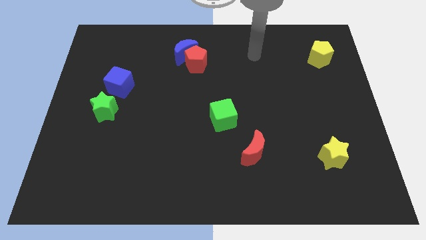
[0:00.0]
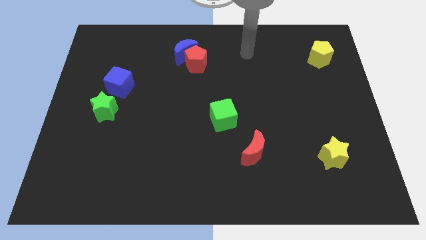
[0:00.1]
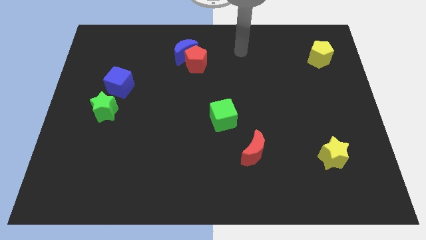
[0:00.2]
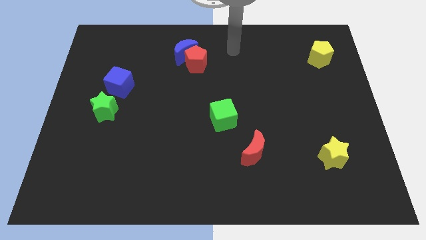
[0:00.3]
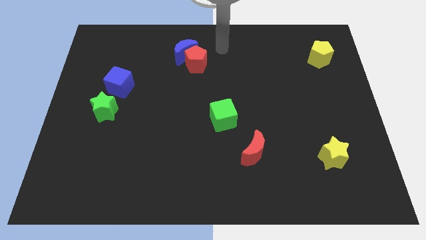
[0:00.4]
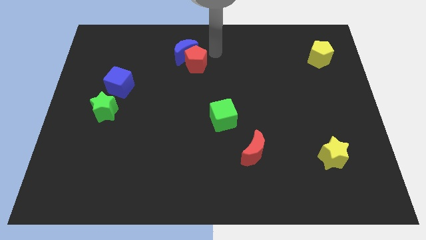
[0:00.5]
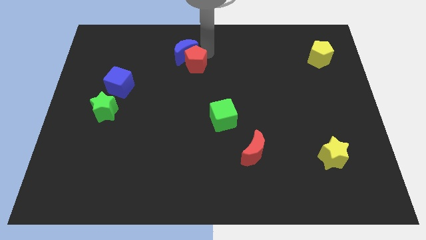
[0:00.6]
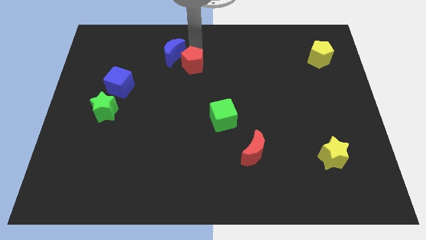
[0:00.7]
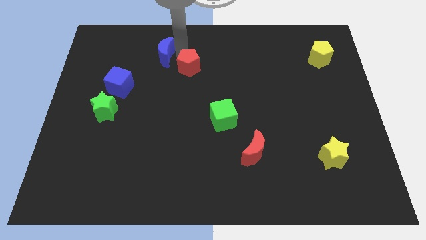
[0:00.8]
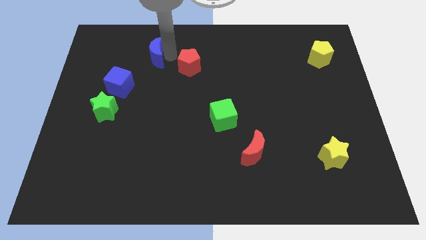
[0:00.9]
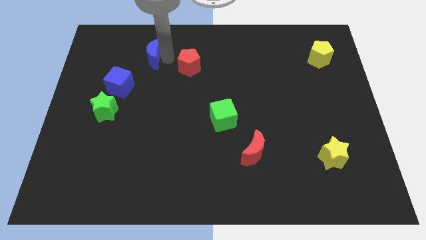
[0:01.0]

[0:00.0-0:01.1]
pull the red pentagon apart from the blue moon

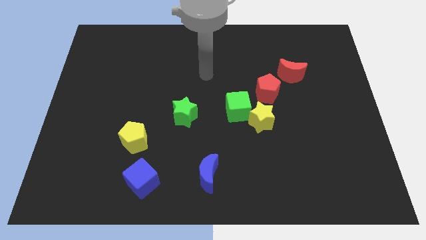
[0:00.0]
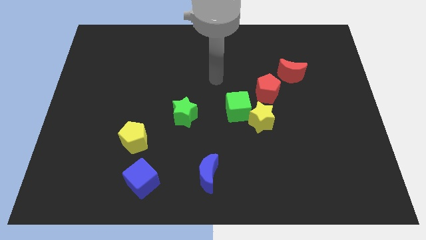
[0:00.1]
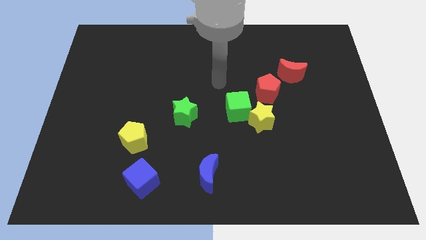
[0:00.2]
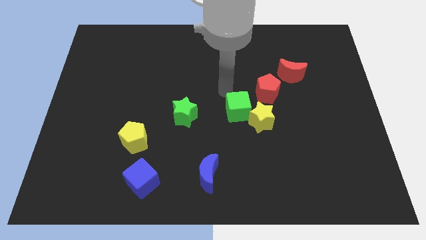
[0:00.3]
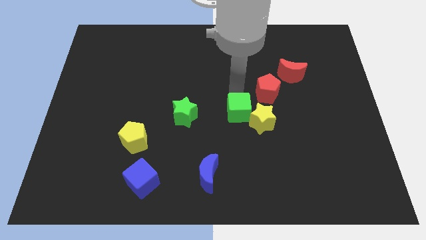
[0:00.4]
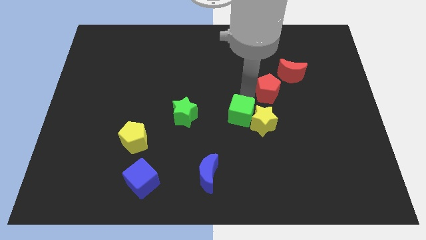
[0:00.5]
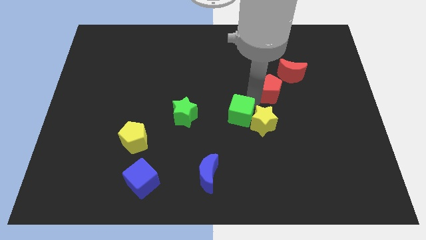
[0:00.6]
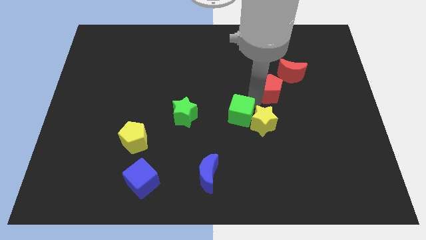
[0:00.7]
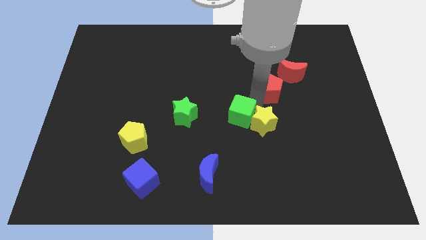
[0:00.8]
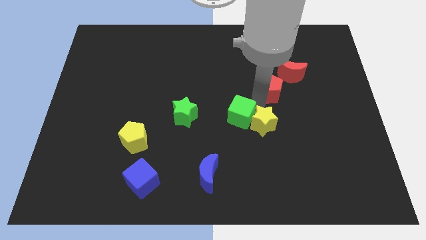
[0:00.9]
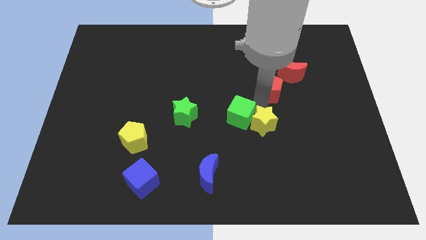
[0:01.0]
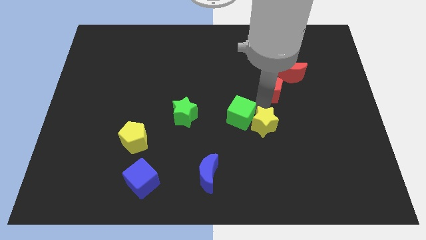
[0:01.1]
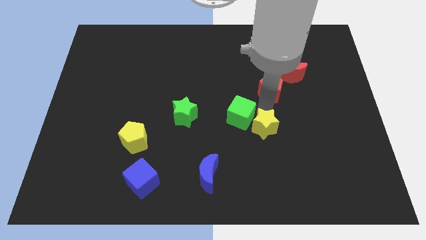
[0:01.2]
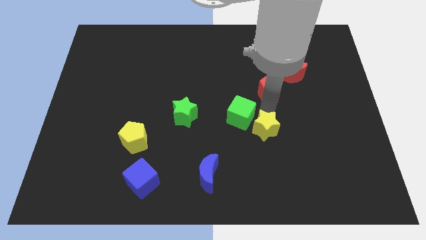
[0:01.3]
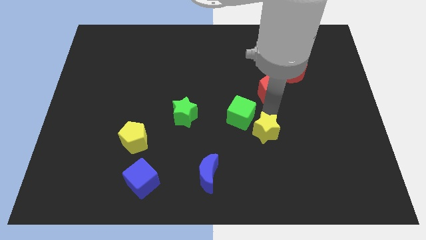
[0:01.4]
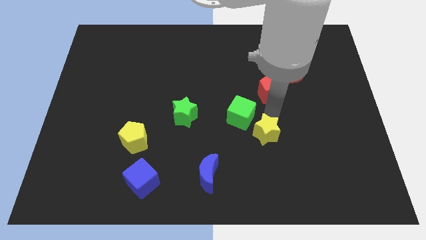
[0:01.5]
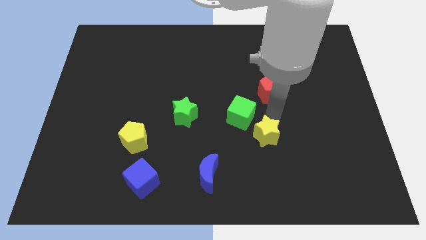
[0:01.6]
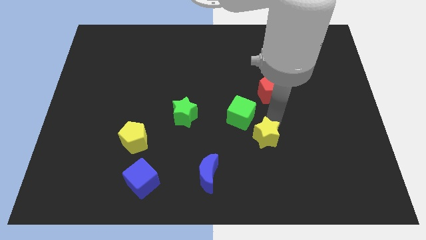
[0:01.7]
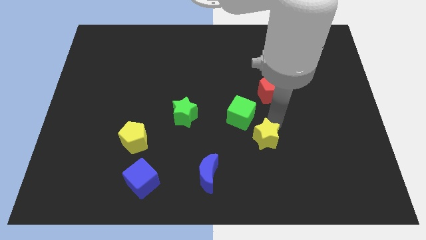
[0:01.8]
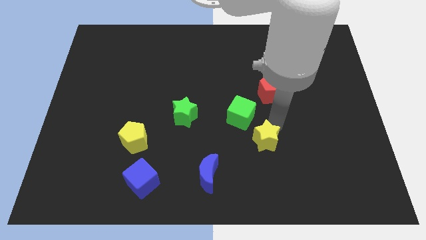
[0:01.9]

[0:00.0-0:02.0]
pull the yellow star apart from the green cube and red pentagon

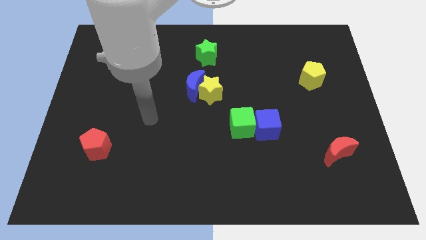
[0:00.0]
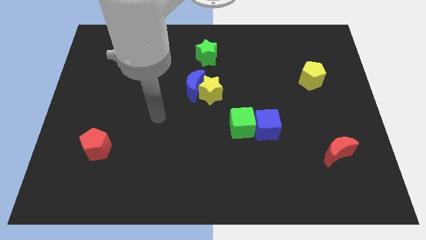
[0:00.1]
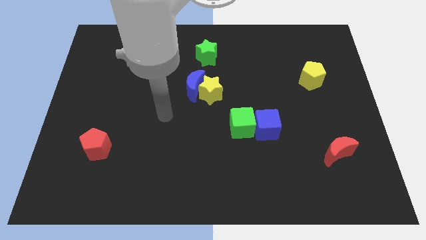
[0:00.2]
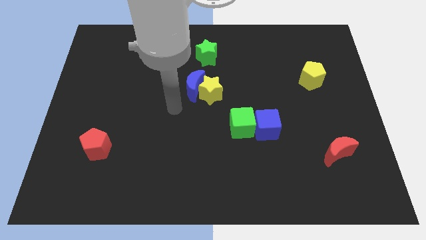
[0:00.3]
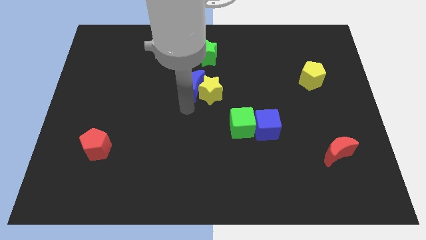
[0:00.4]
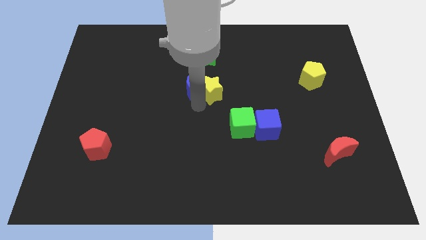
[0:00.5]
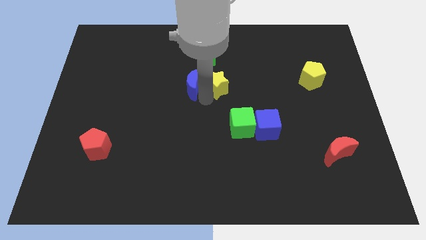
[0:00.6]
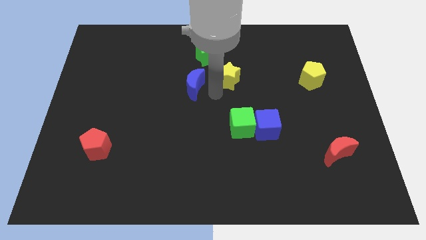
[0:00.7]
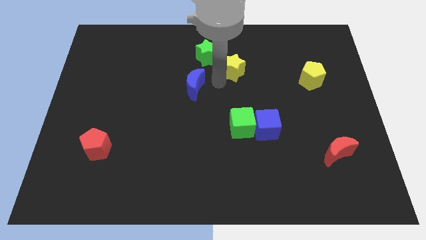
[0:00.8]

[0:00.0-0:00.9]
pull the blue moon apart from the yellow star

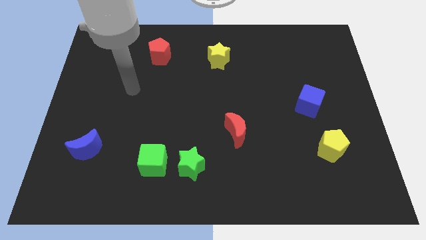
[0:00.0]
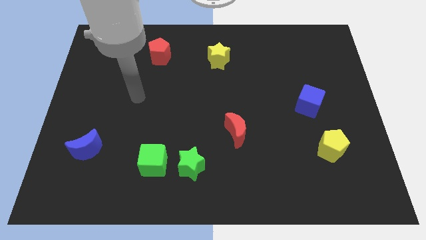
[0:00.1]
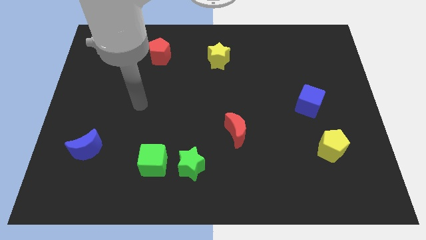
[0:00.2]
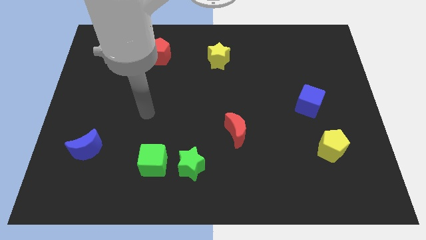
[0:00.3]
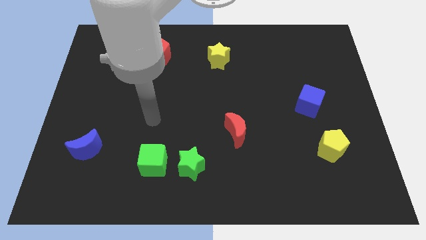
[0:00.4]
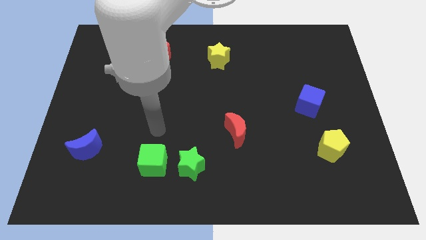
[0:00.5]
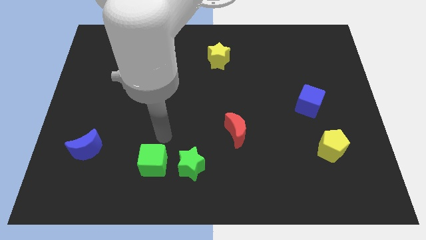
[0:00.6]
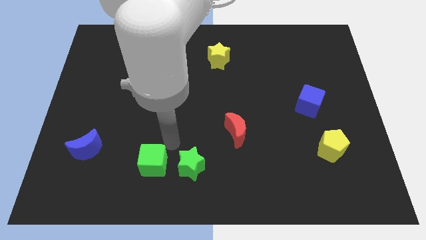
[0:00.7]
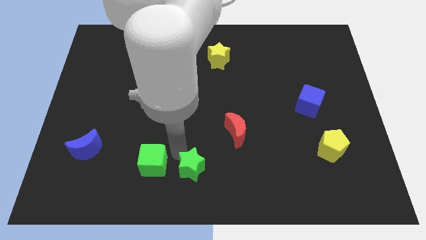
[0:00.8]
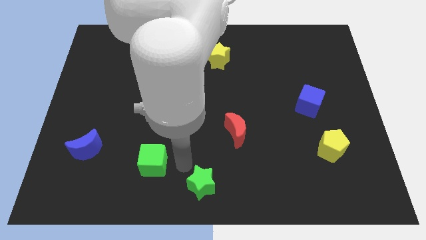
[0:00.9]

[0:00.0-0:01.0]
pull the green cube apart from the green star

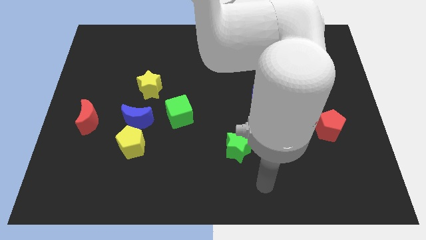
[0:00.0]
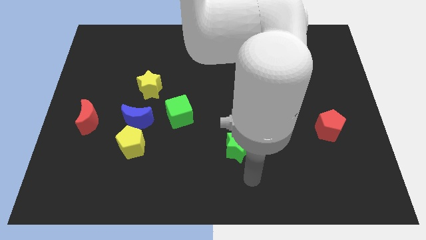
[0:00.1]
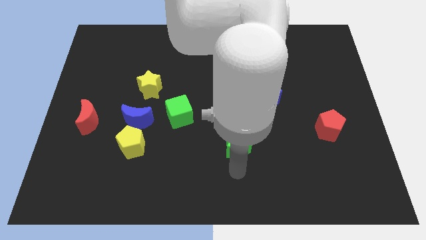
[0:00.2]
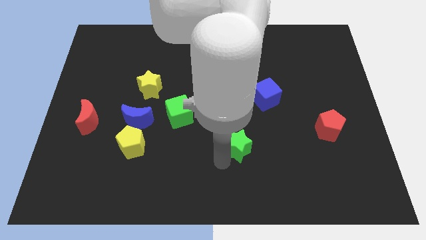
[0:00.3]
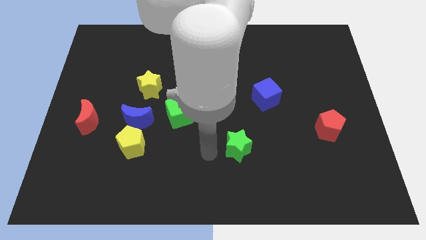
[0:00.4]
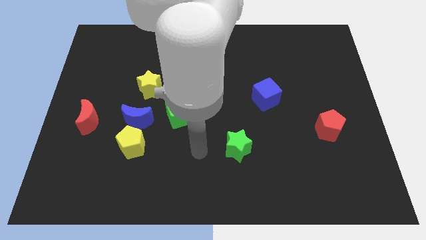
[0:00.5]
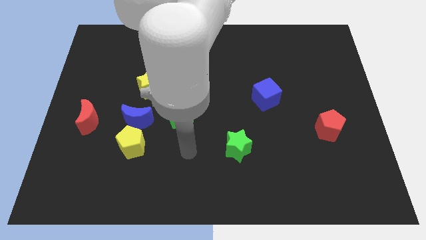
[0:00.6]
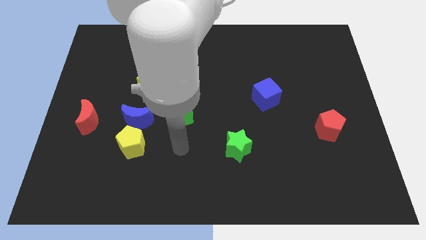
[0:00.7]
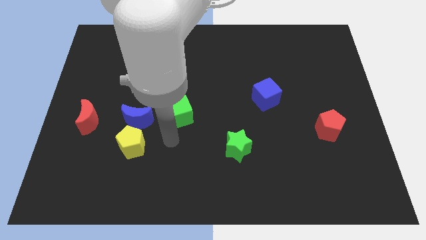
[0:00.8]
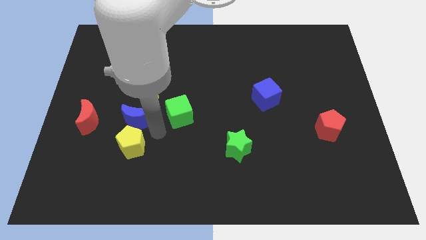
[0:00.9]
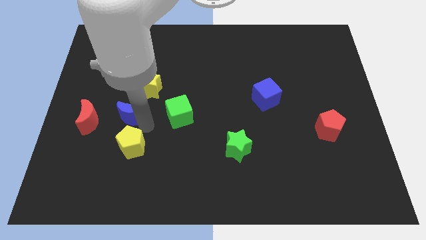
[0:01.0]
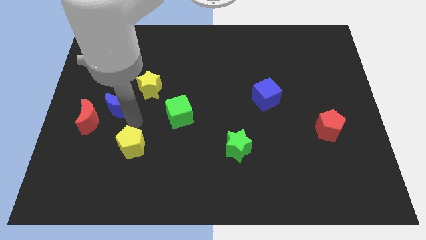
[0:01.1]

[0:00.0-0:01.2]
separate the yellow pentagon from the blue moon

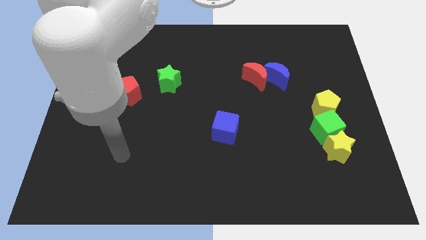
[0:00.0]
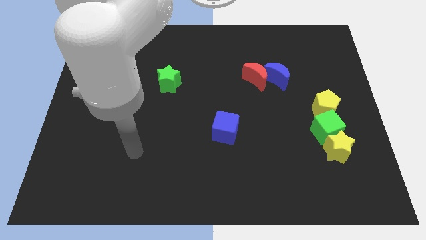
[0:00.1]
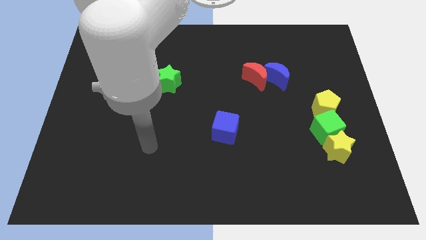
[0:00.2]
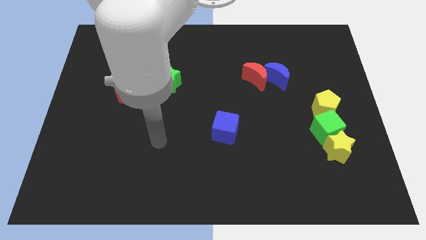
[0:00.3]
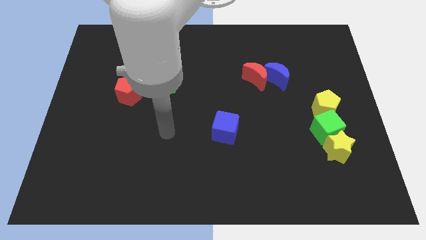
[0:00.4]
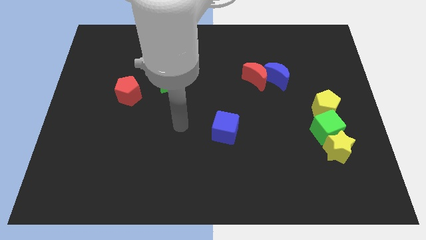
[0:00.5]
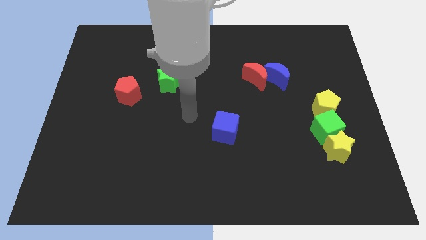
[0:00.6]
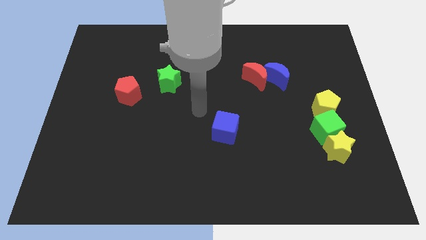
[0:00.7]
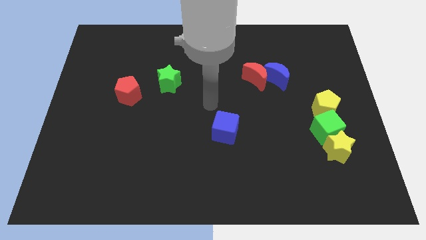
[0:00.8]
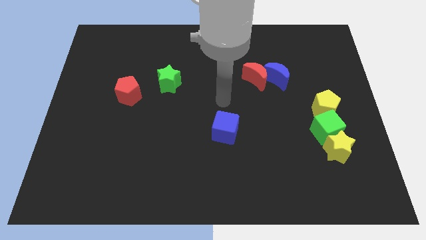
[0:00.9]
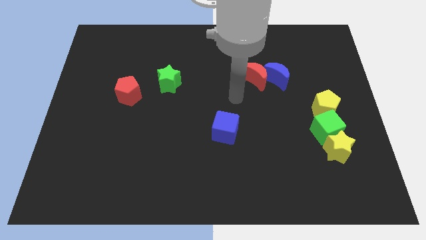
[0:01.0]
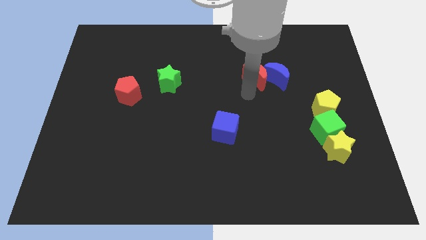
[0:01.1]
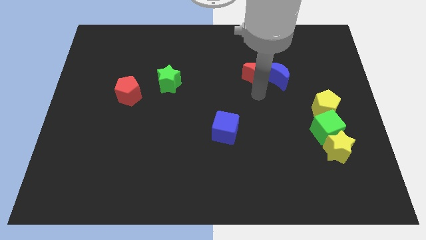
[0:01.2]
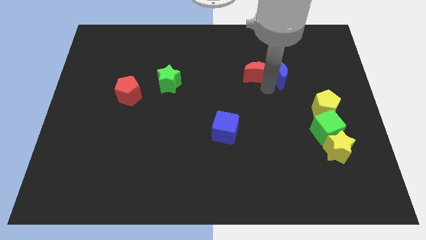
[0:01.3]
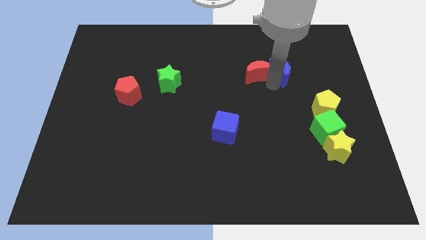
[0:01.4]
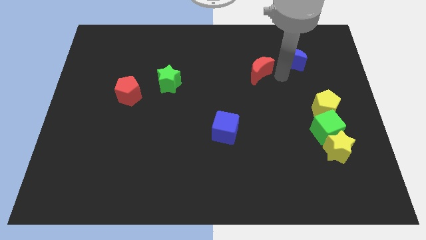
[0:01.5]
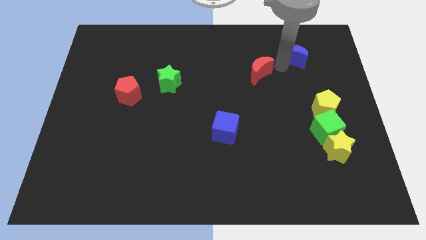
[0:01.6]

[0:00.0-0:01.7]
move the red moon away from the blue moon

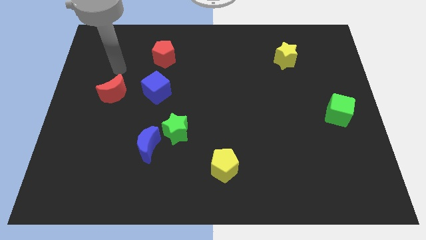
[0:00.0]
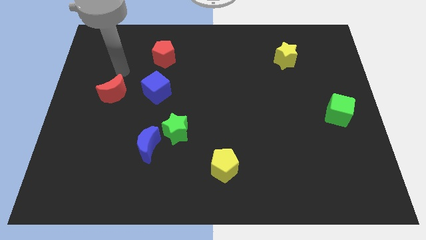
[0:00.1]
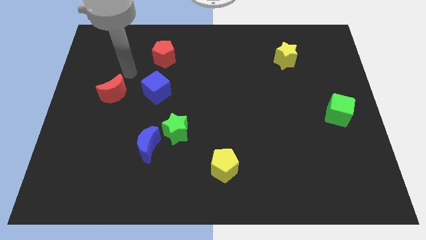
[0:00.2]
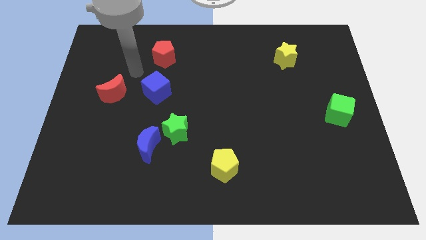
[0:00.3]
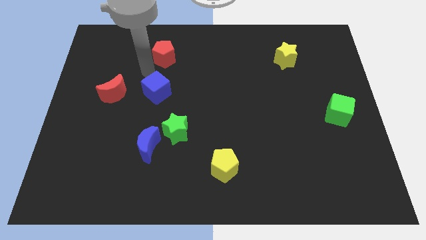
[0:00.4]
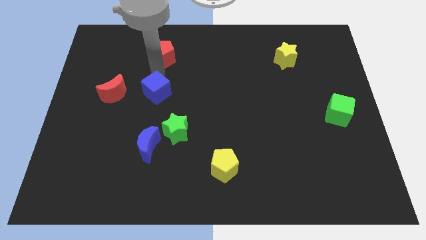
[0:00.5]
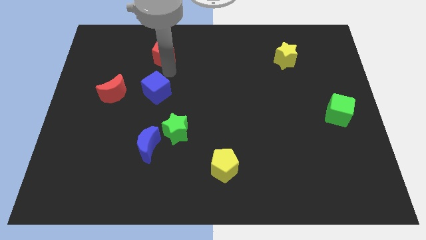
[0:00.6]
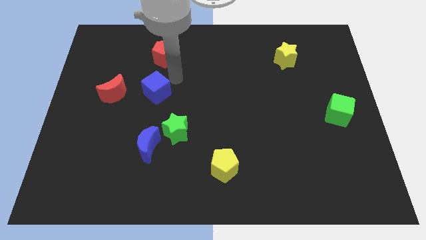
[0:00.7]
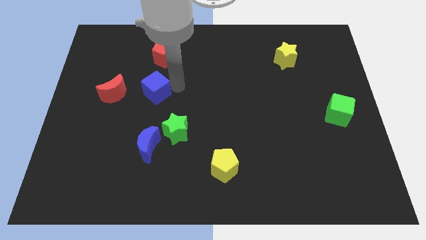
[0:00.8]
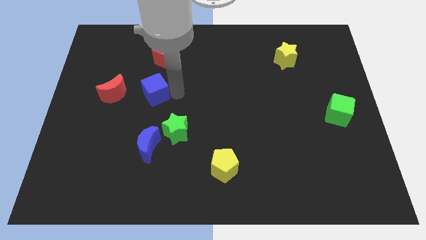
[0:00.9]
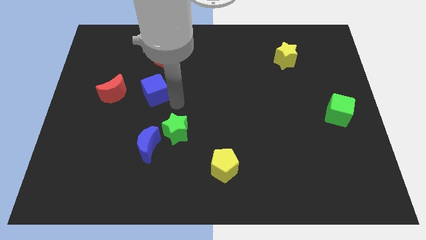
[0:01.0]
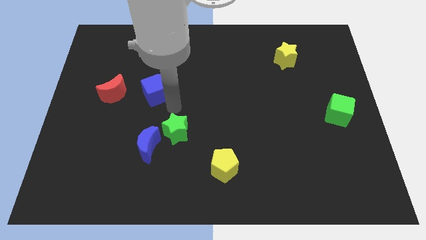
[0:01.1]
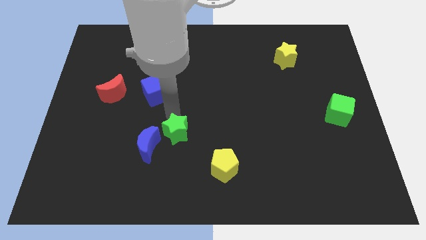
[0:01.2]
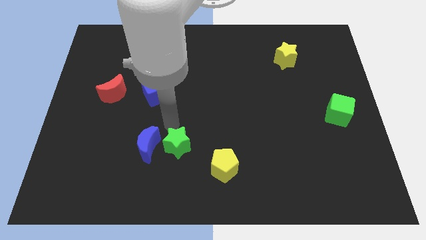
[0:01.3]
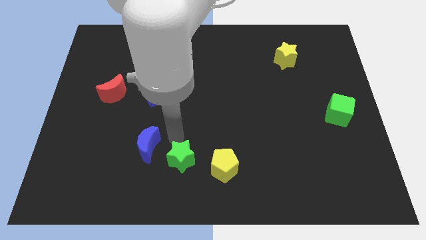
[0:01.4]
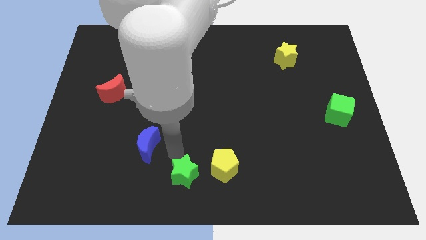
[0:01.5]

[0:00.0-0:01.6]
separate the blue moon from the green star
